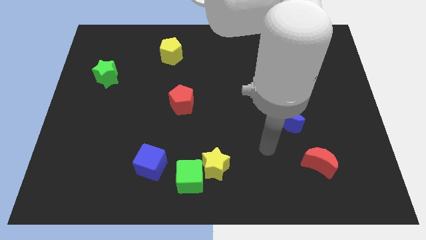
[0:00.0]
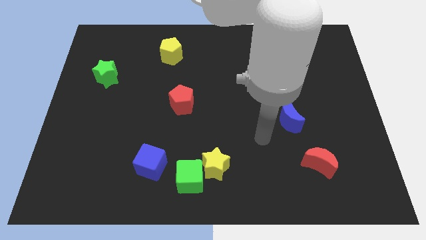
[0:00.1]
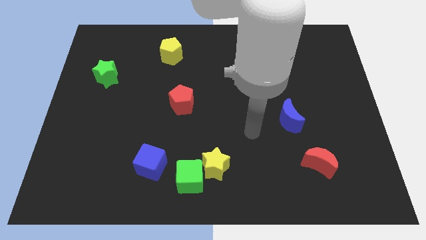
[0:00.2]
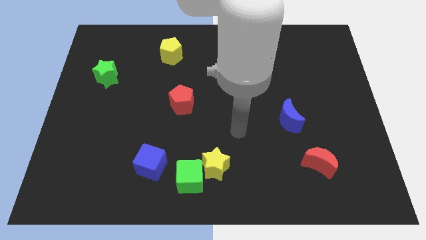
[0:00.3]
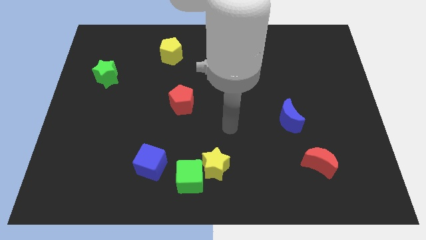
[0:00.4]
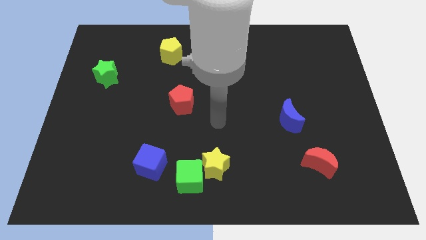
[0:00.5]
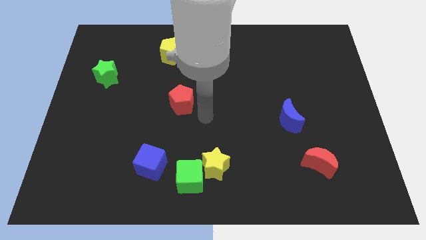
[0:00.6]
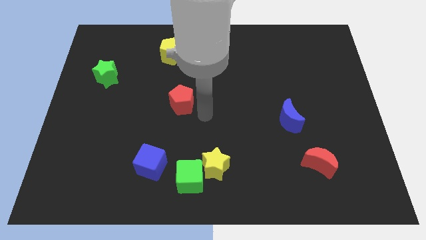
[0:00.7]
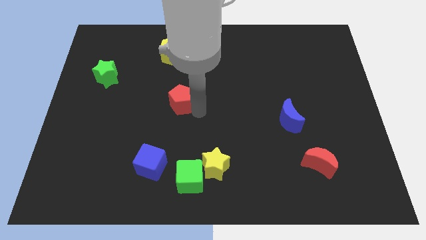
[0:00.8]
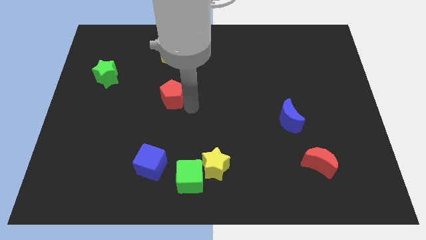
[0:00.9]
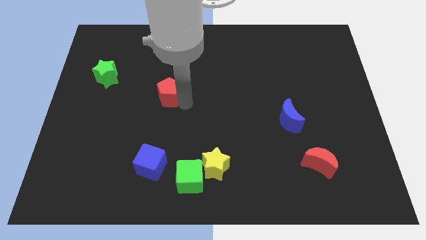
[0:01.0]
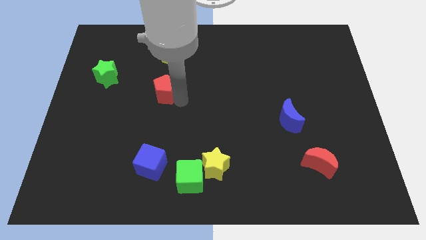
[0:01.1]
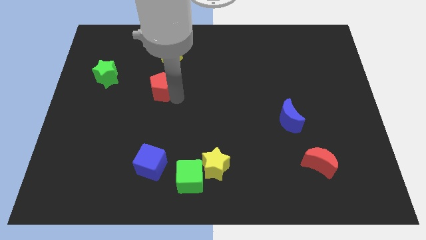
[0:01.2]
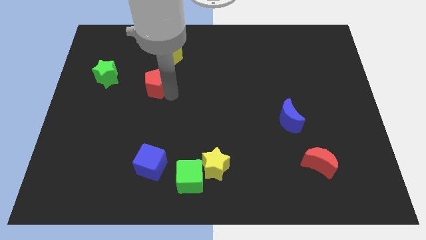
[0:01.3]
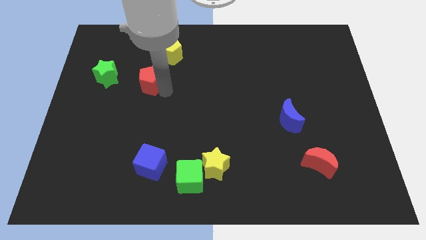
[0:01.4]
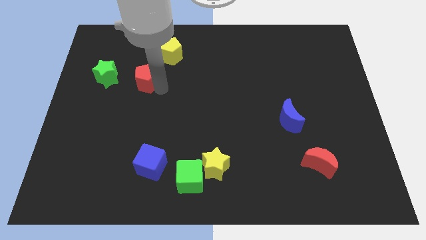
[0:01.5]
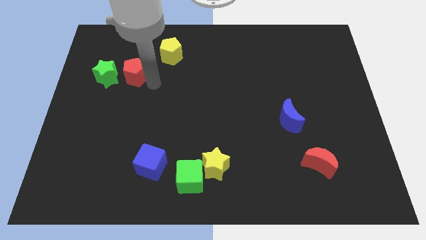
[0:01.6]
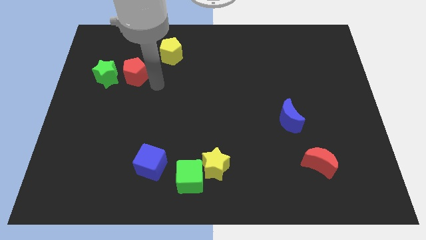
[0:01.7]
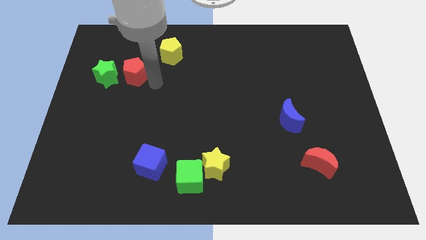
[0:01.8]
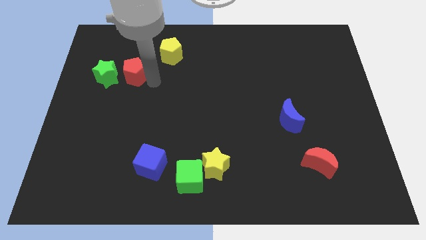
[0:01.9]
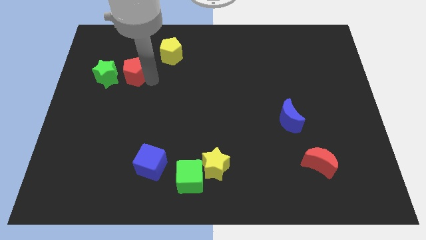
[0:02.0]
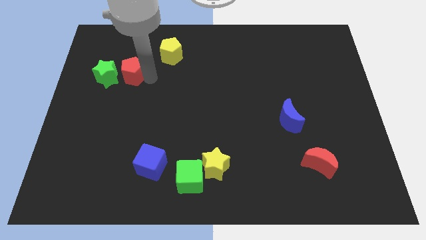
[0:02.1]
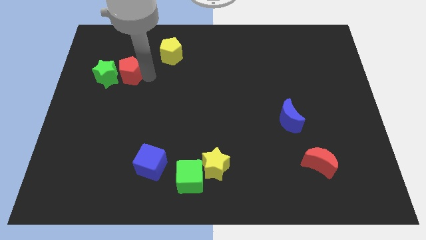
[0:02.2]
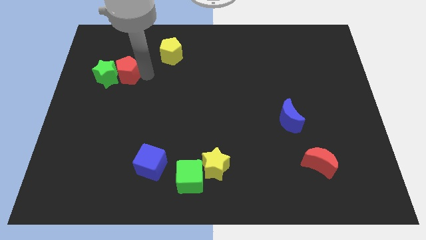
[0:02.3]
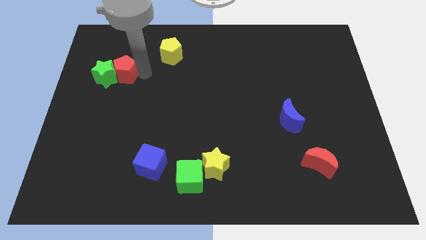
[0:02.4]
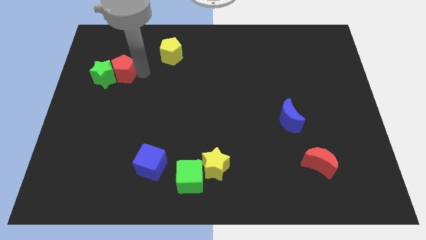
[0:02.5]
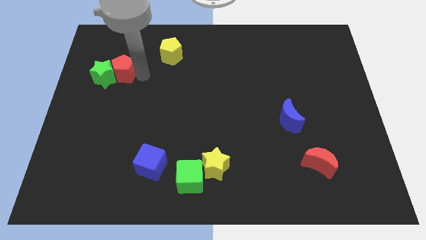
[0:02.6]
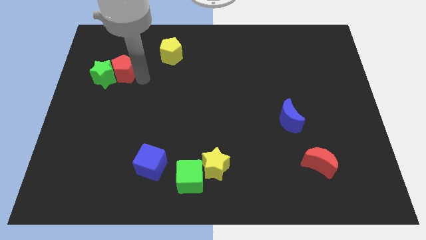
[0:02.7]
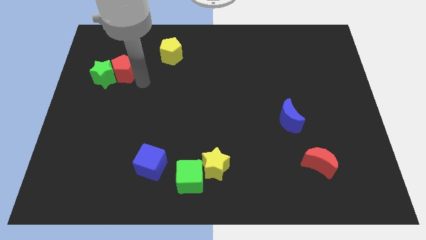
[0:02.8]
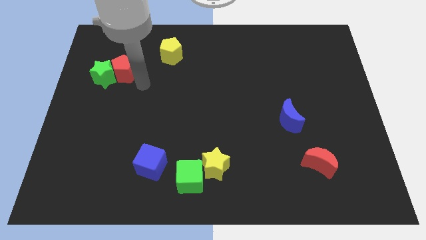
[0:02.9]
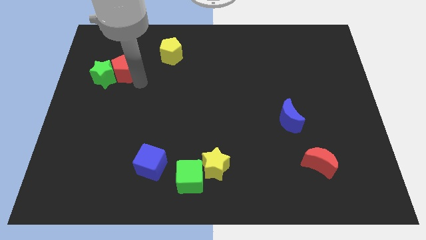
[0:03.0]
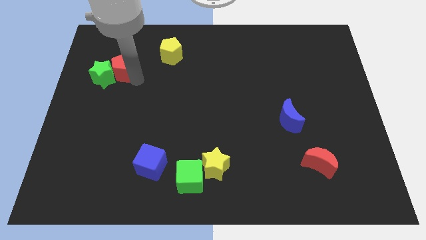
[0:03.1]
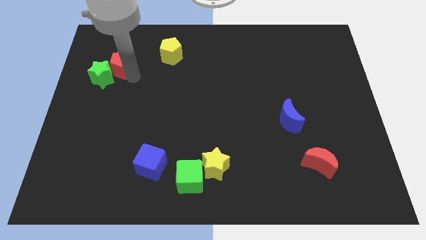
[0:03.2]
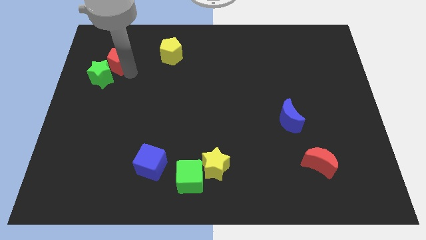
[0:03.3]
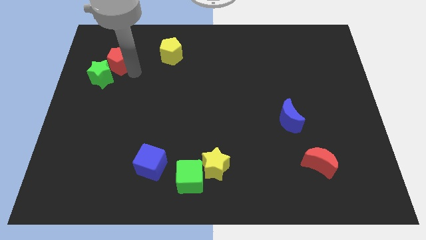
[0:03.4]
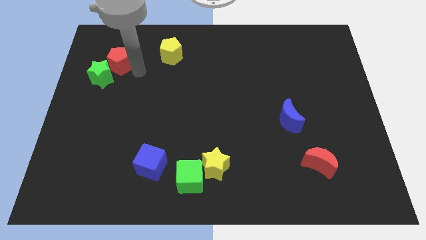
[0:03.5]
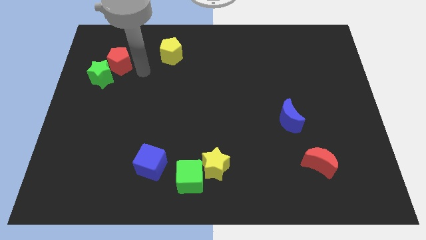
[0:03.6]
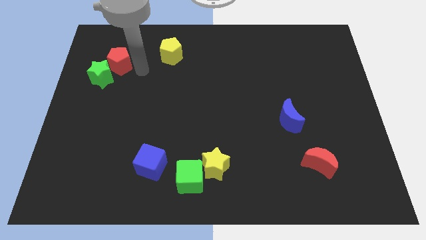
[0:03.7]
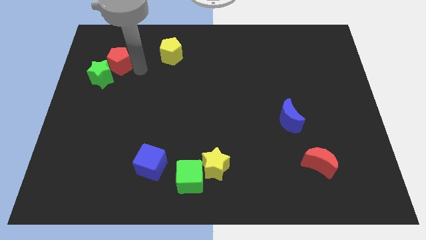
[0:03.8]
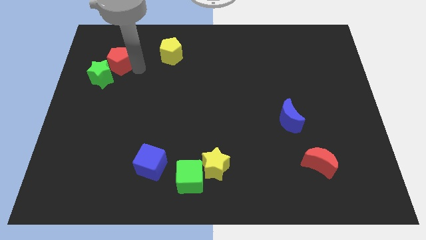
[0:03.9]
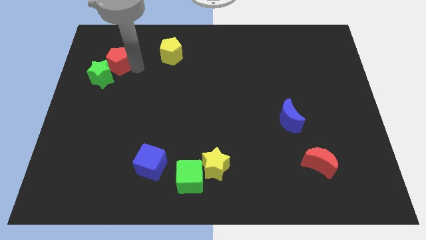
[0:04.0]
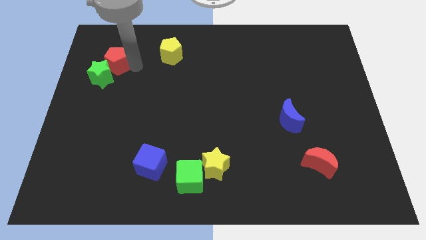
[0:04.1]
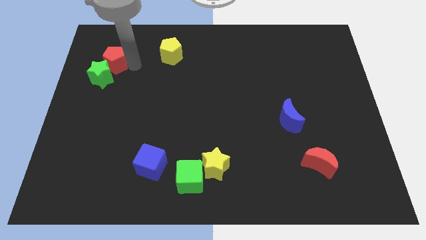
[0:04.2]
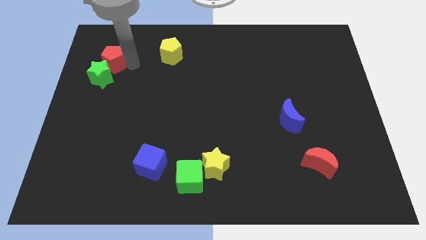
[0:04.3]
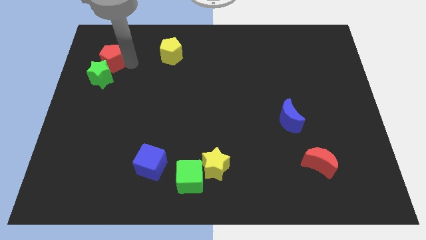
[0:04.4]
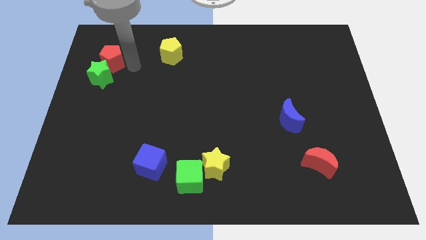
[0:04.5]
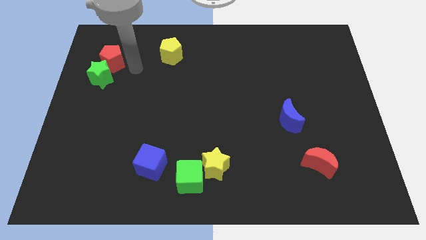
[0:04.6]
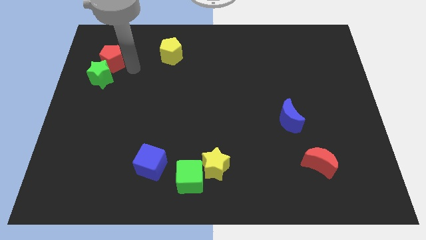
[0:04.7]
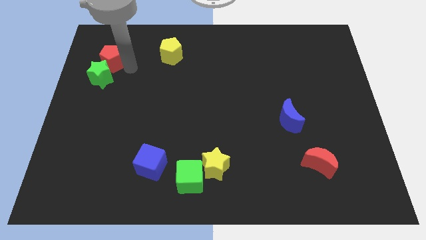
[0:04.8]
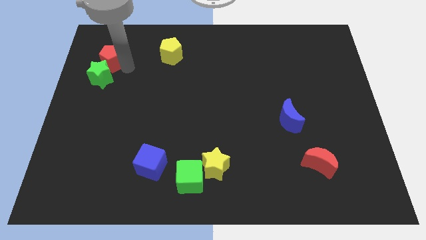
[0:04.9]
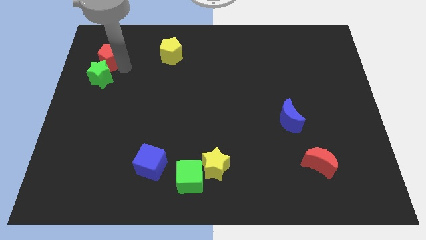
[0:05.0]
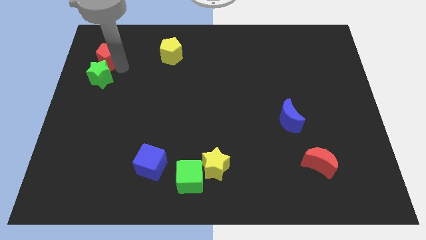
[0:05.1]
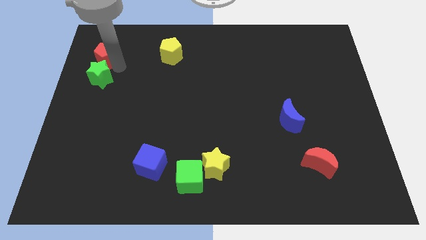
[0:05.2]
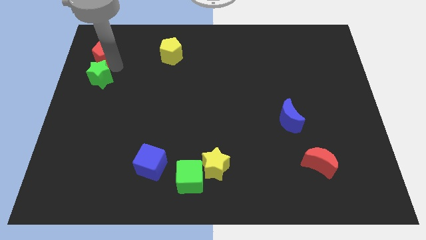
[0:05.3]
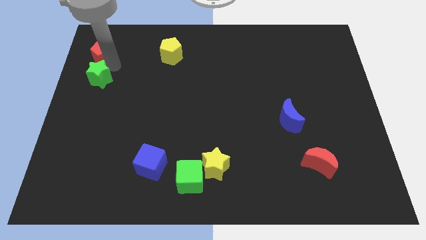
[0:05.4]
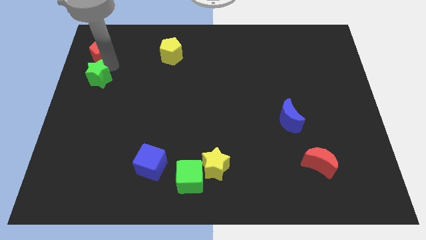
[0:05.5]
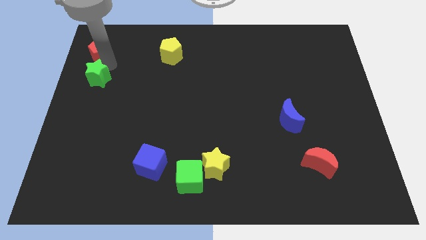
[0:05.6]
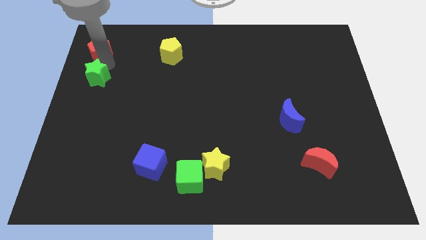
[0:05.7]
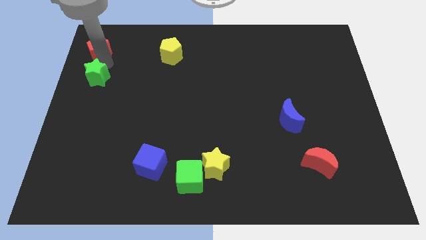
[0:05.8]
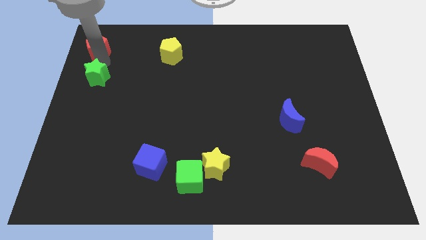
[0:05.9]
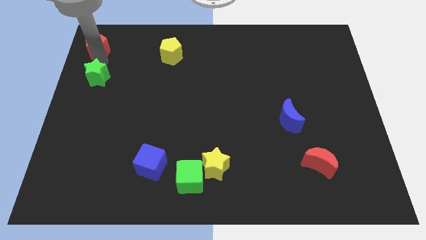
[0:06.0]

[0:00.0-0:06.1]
move the red pentagon to the upper left corner
